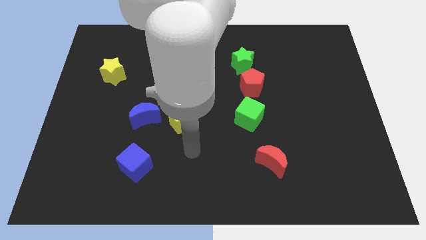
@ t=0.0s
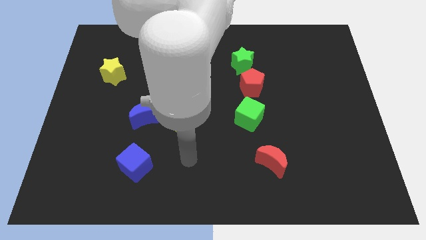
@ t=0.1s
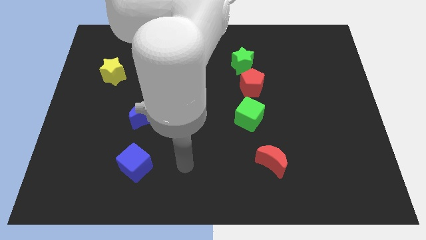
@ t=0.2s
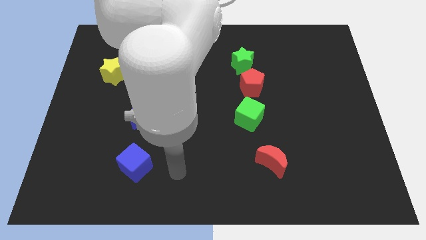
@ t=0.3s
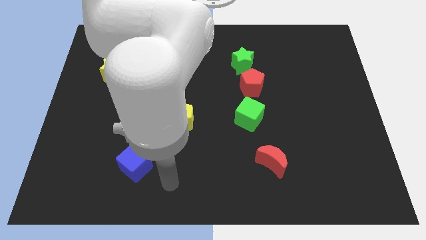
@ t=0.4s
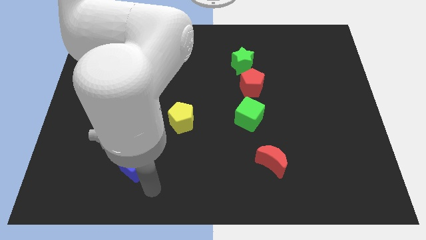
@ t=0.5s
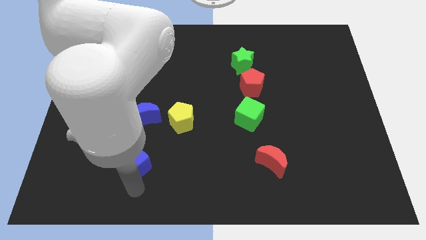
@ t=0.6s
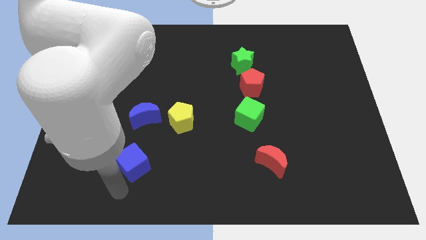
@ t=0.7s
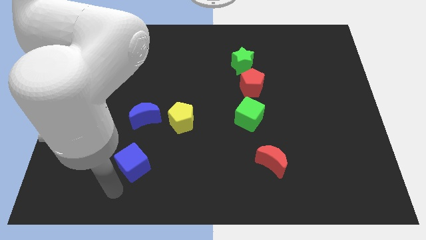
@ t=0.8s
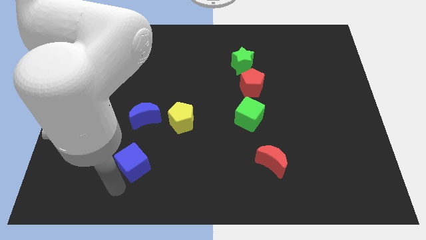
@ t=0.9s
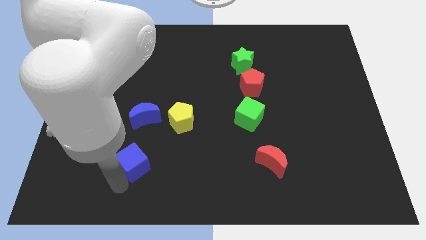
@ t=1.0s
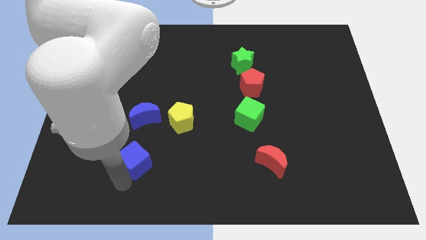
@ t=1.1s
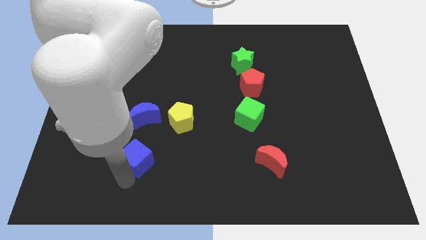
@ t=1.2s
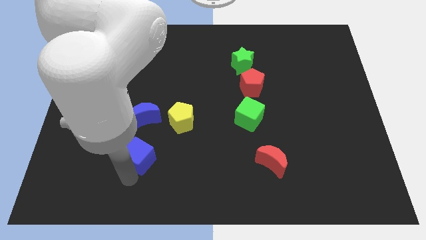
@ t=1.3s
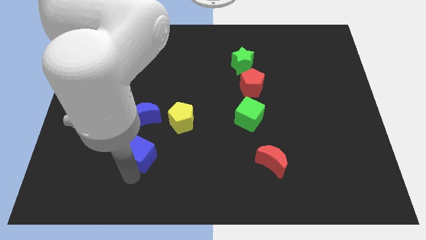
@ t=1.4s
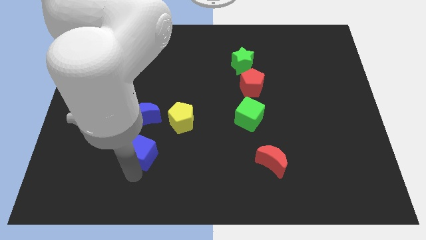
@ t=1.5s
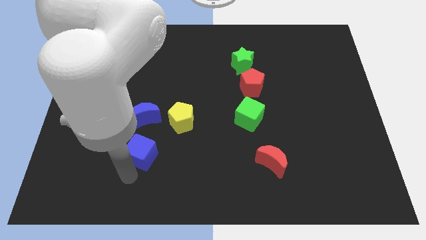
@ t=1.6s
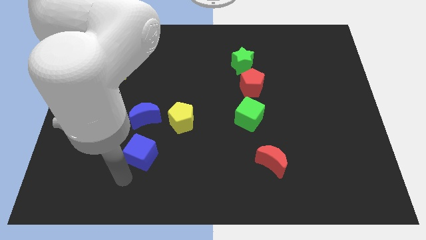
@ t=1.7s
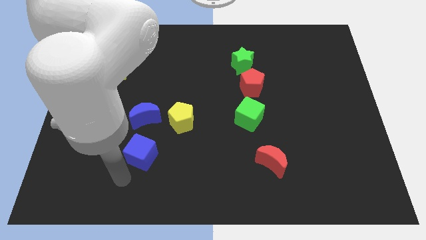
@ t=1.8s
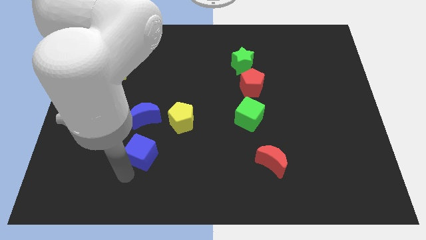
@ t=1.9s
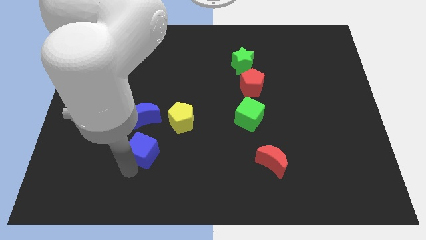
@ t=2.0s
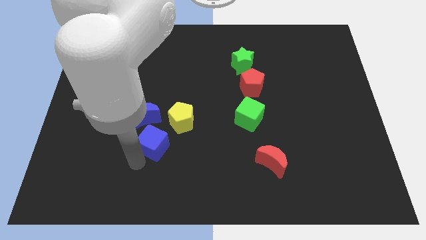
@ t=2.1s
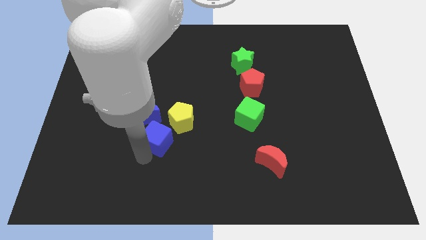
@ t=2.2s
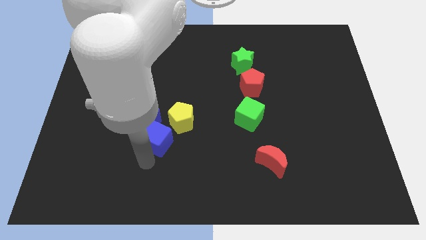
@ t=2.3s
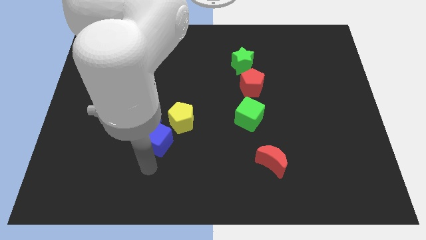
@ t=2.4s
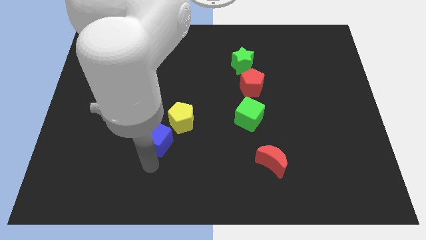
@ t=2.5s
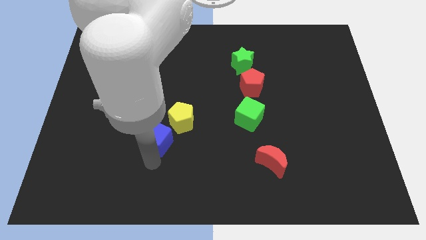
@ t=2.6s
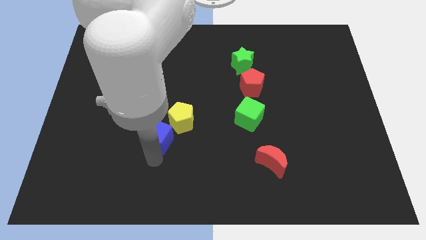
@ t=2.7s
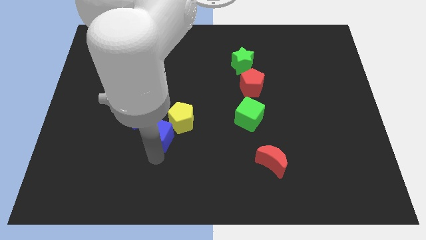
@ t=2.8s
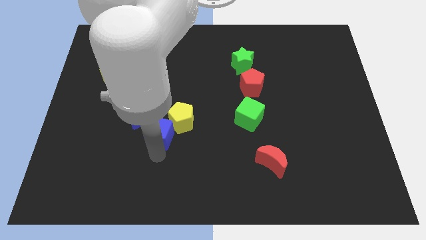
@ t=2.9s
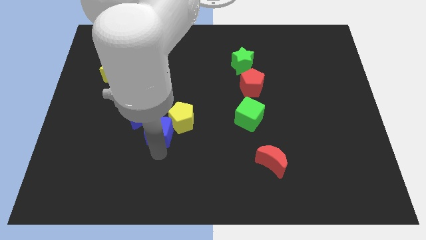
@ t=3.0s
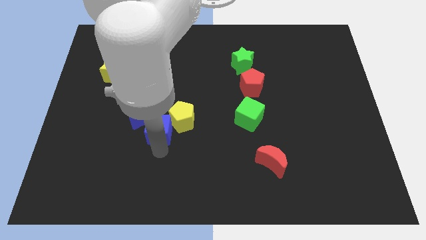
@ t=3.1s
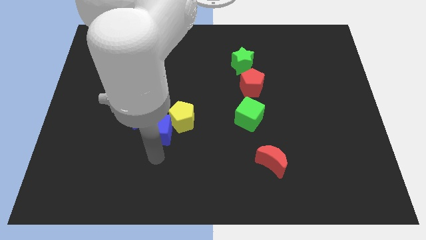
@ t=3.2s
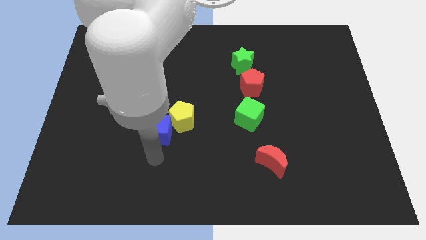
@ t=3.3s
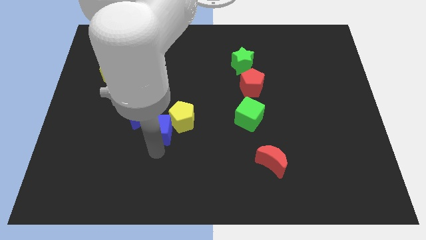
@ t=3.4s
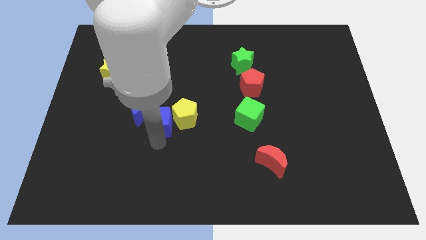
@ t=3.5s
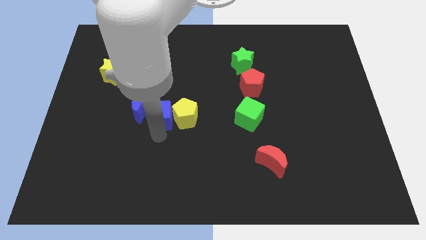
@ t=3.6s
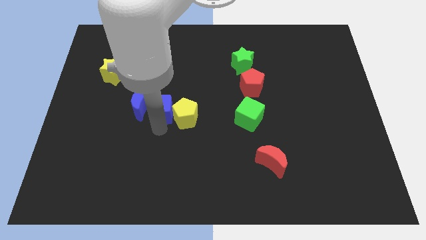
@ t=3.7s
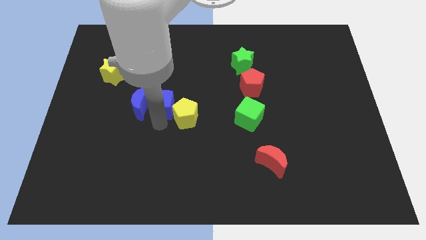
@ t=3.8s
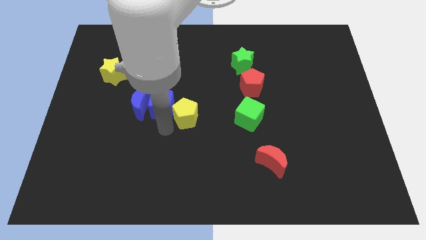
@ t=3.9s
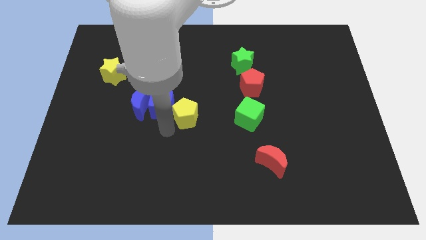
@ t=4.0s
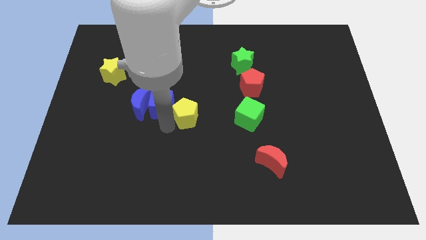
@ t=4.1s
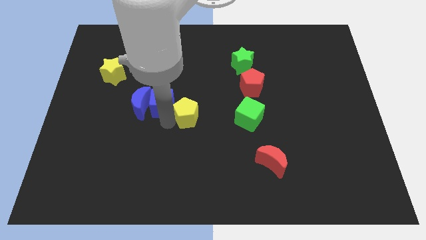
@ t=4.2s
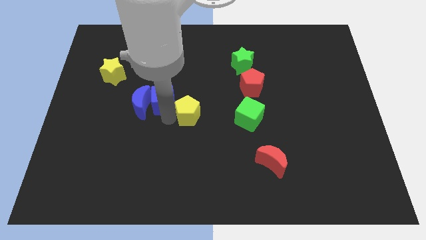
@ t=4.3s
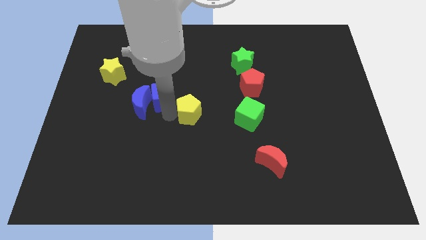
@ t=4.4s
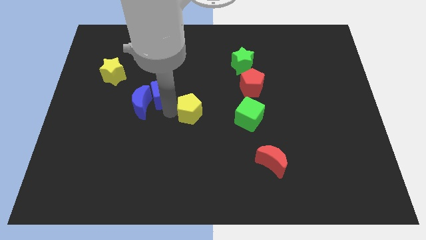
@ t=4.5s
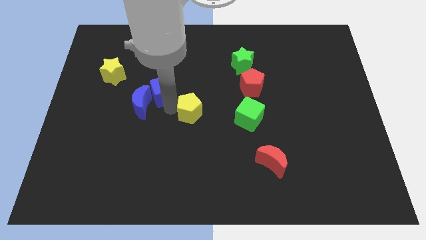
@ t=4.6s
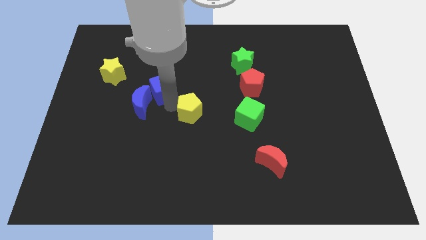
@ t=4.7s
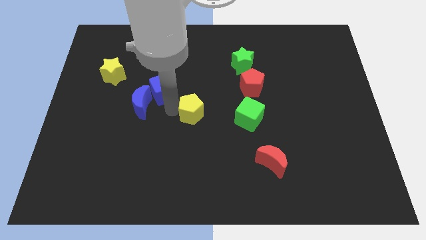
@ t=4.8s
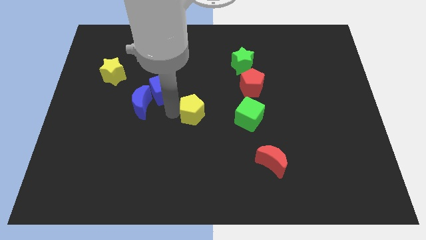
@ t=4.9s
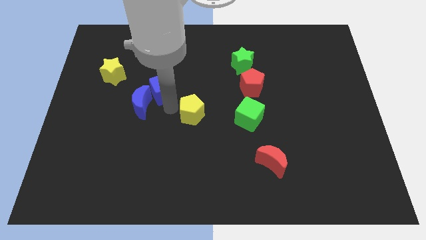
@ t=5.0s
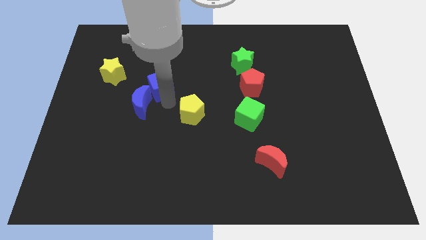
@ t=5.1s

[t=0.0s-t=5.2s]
slide the blue cube just right of the yellow star

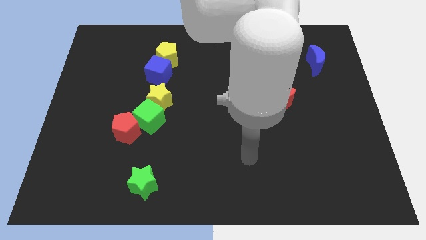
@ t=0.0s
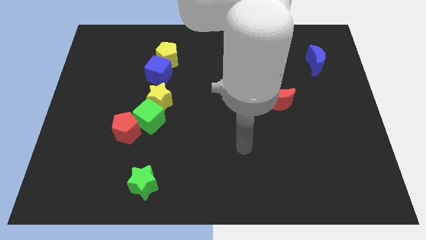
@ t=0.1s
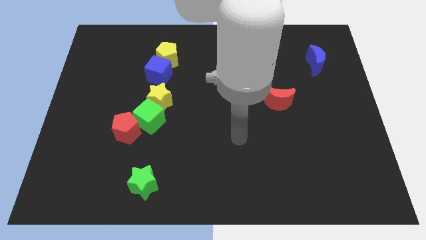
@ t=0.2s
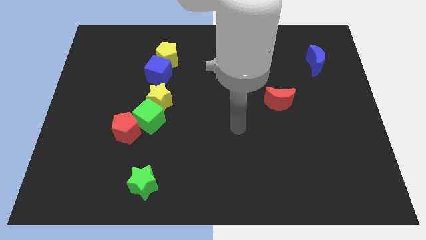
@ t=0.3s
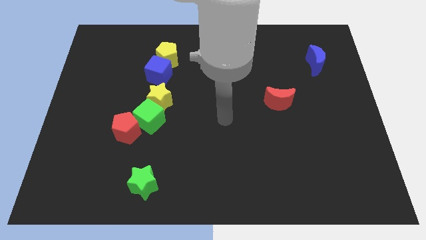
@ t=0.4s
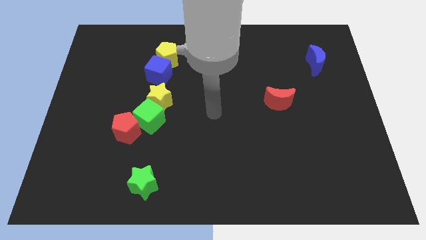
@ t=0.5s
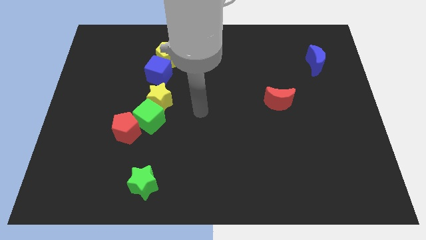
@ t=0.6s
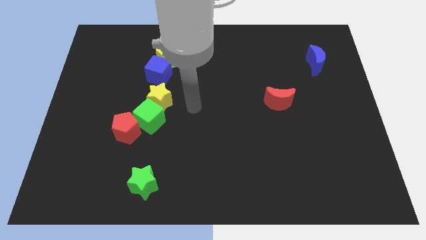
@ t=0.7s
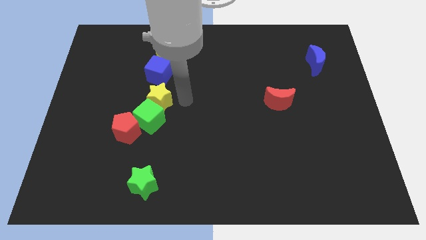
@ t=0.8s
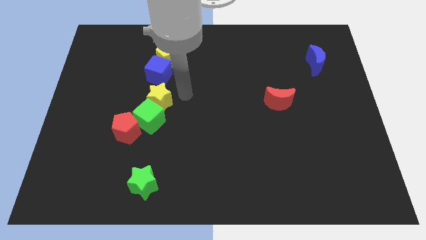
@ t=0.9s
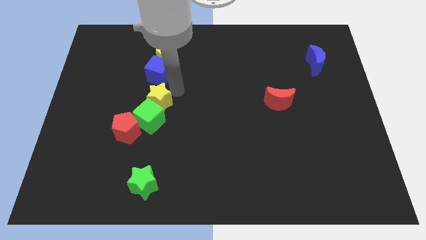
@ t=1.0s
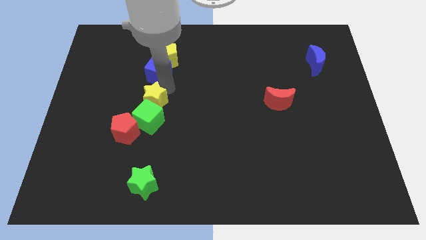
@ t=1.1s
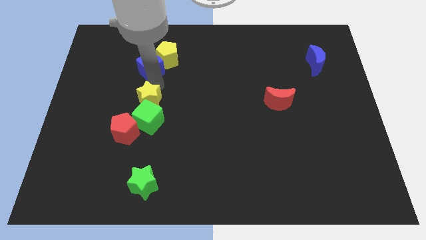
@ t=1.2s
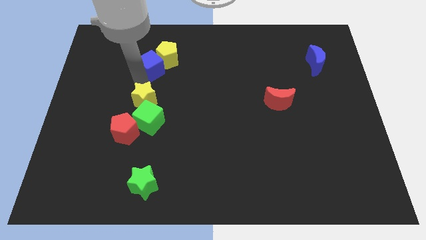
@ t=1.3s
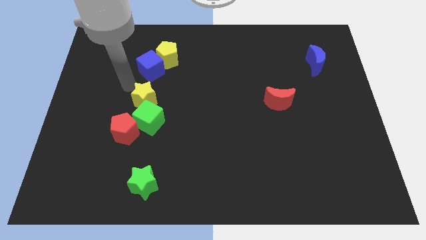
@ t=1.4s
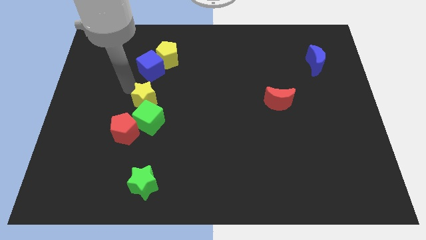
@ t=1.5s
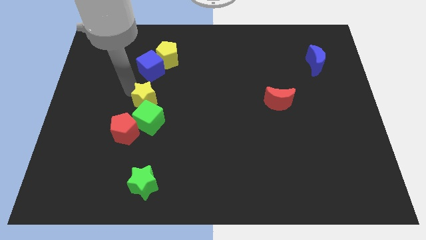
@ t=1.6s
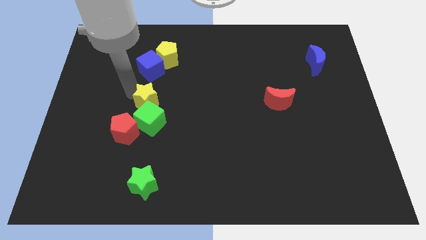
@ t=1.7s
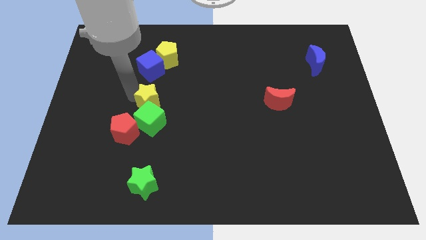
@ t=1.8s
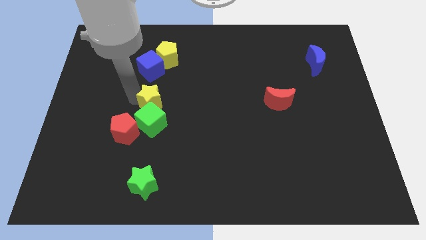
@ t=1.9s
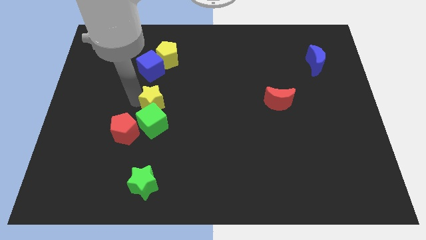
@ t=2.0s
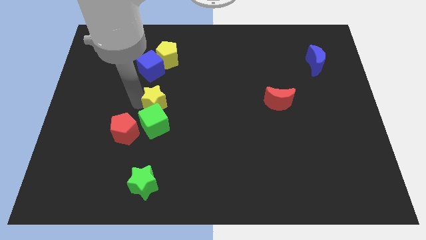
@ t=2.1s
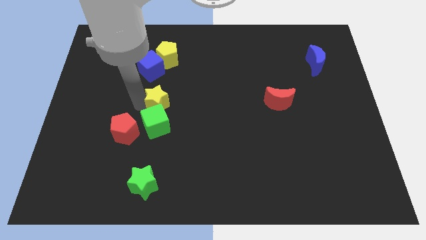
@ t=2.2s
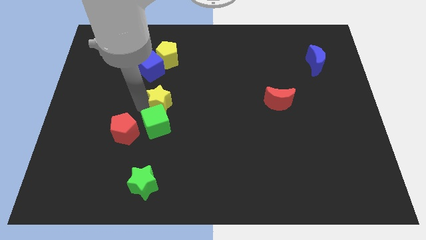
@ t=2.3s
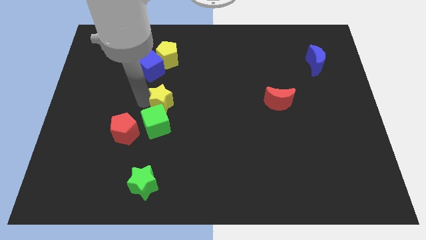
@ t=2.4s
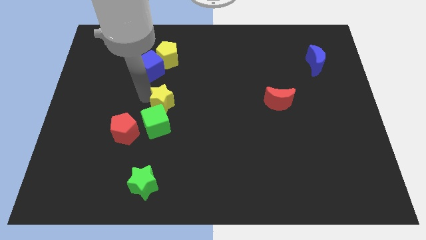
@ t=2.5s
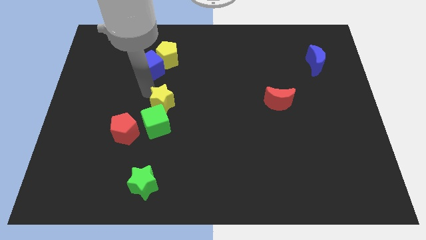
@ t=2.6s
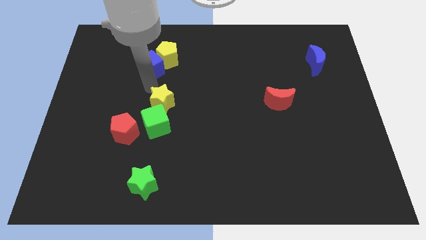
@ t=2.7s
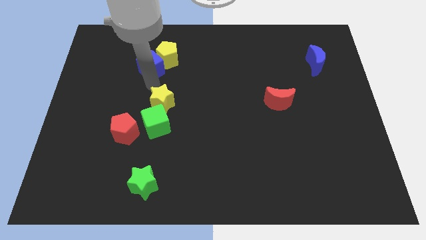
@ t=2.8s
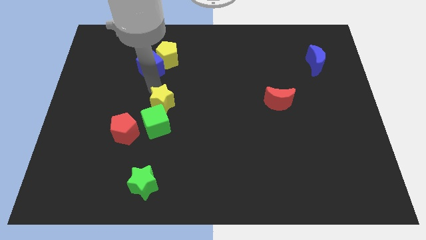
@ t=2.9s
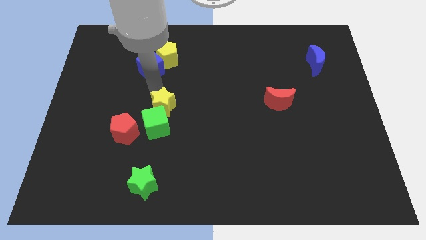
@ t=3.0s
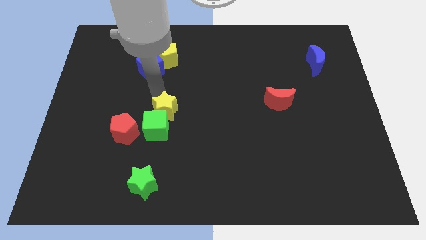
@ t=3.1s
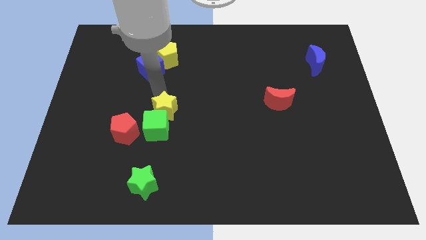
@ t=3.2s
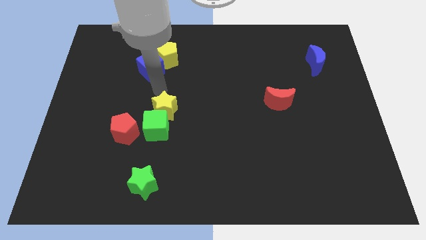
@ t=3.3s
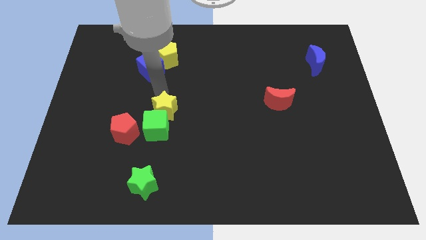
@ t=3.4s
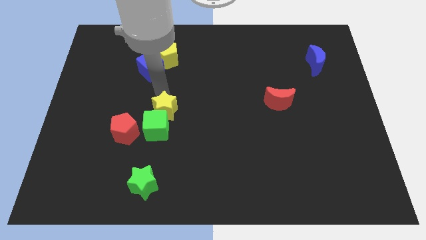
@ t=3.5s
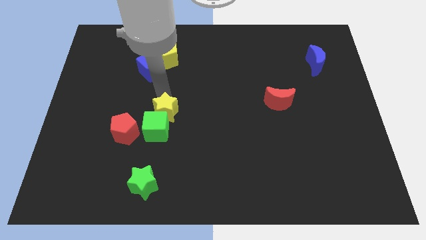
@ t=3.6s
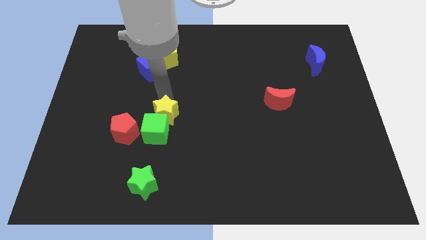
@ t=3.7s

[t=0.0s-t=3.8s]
put the yellow star just right of the red pentagon
